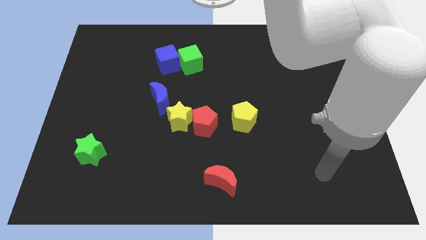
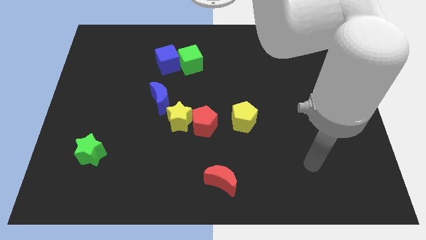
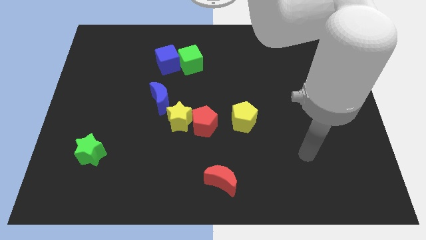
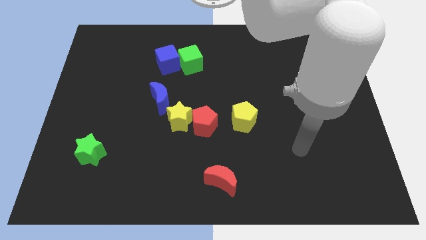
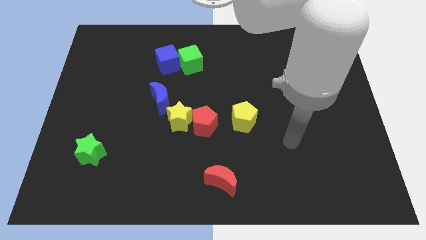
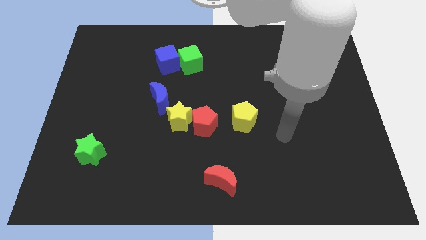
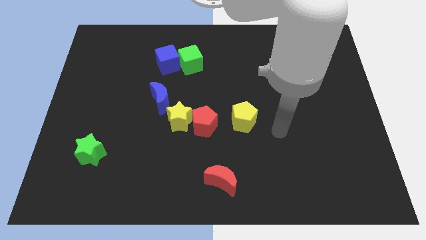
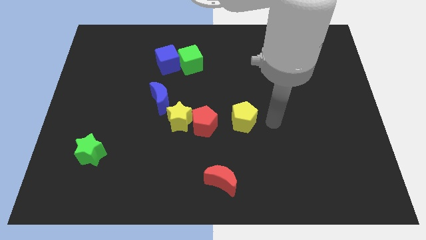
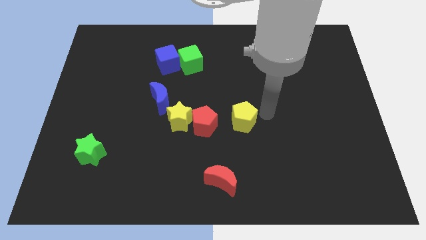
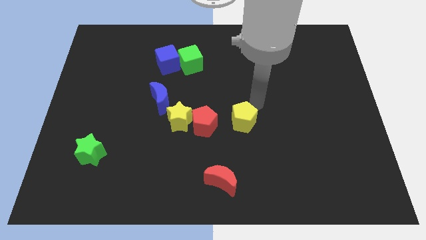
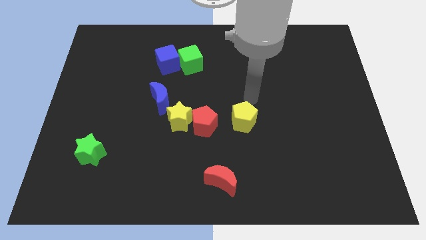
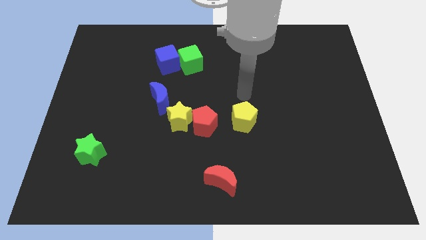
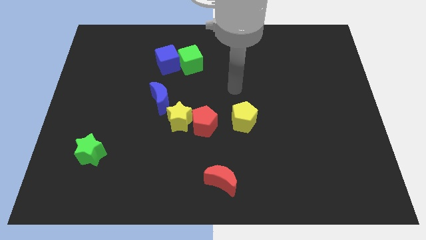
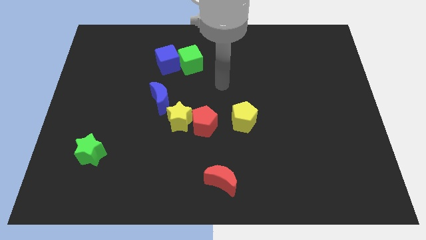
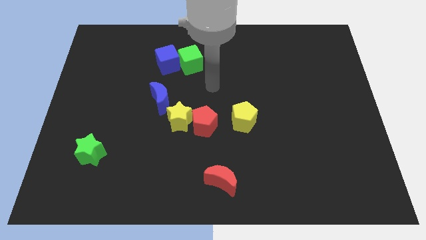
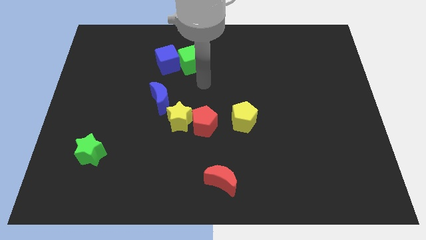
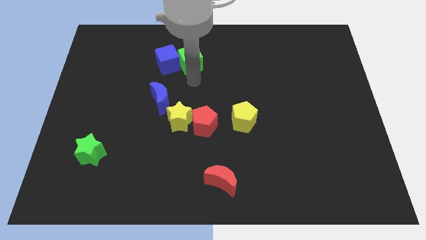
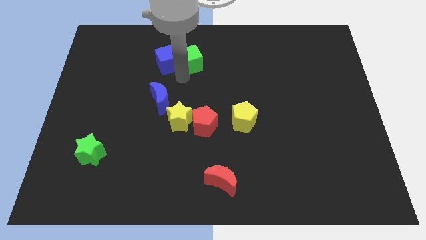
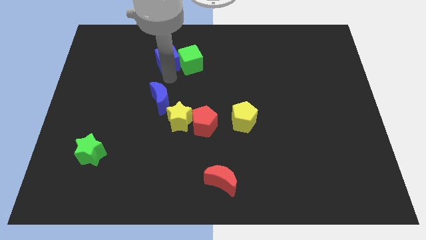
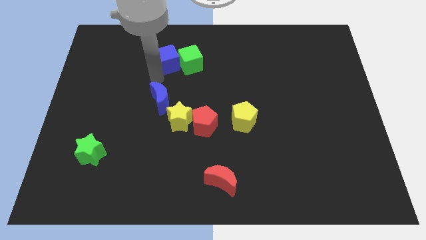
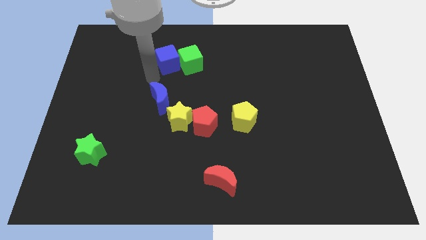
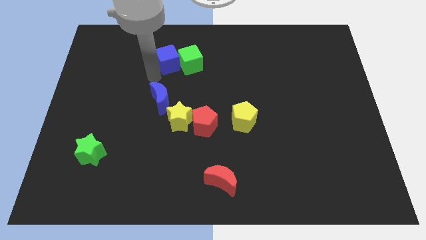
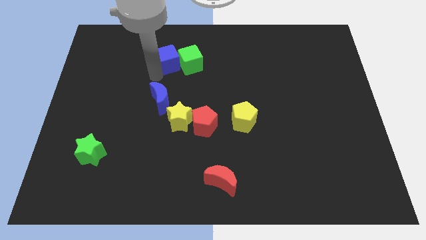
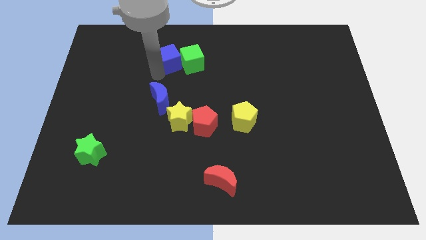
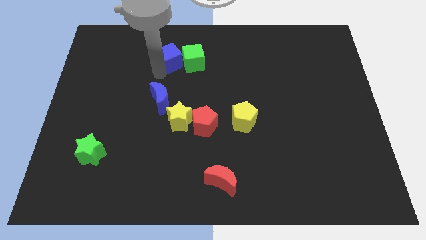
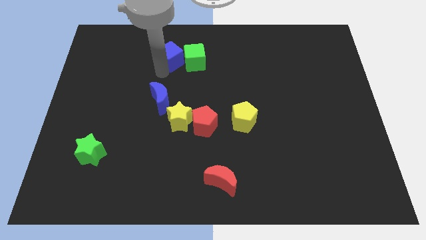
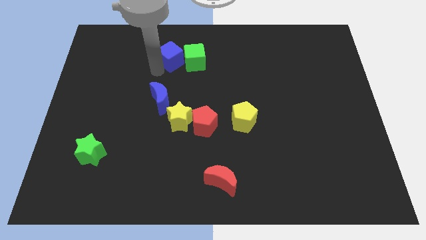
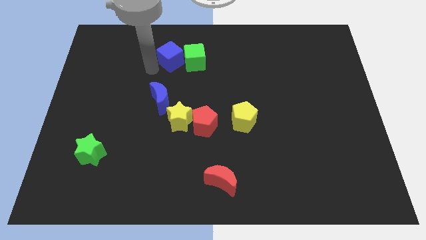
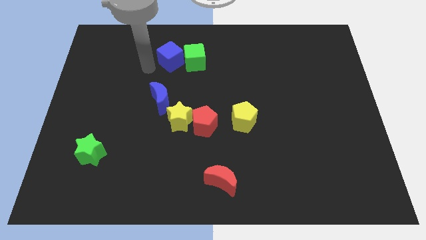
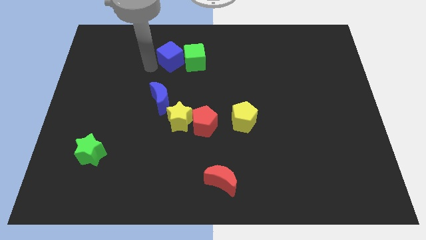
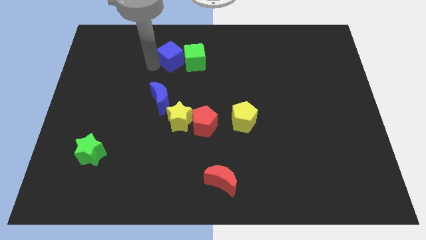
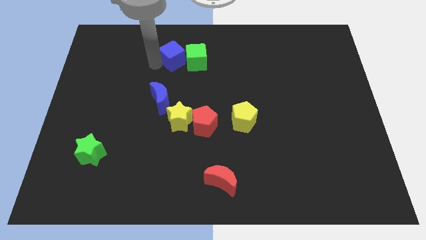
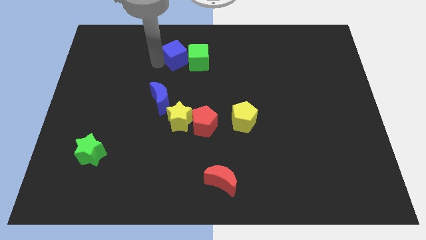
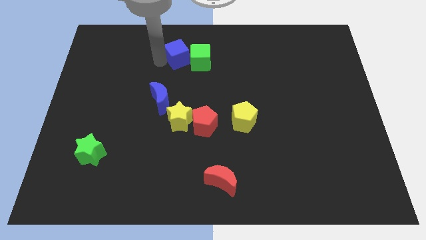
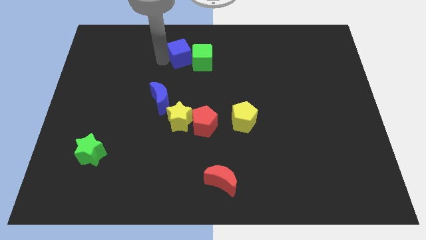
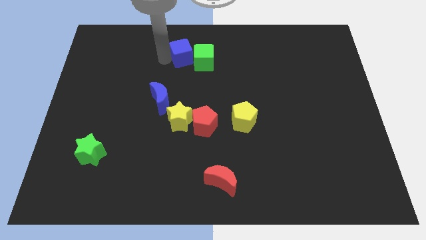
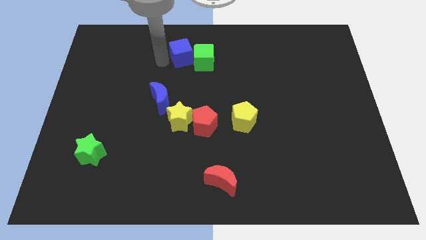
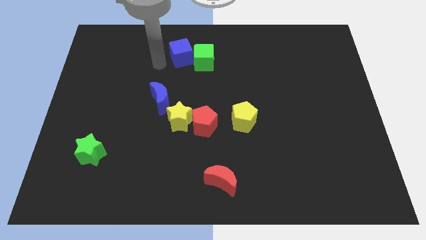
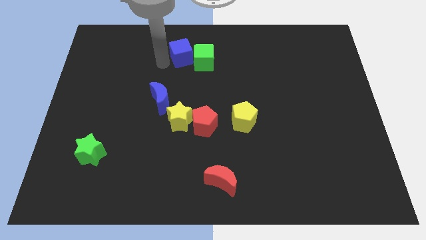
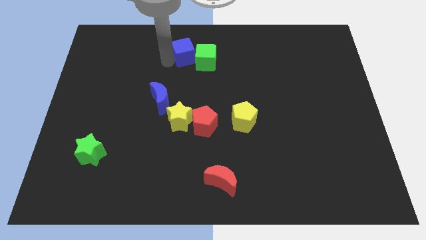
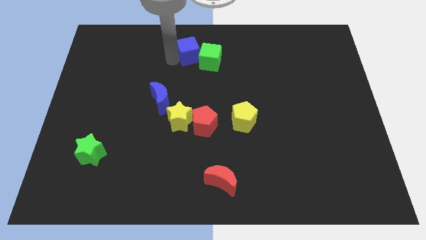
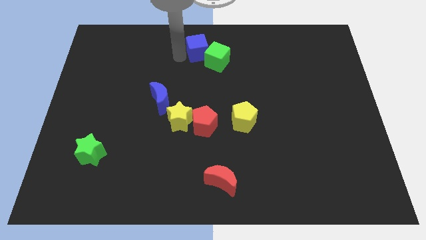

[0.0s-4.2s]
slightly slide the blue cube to the right

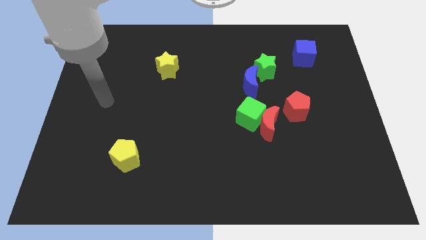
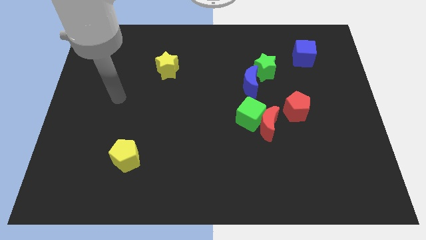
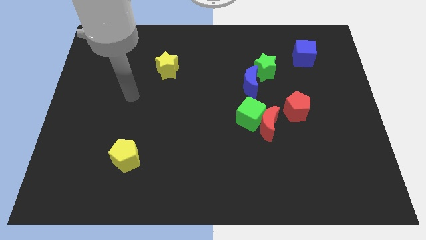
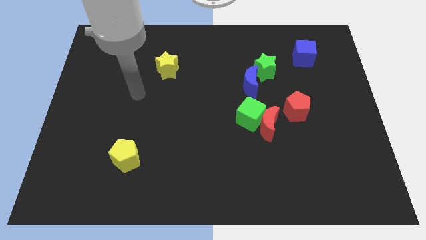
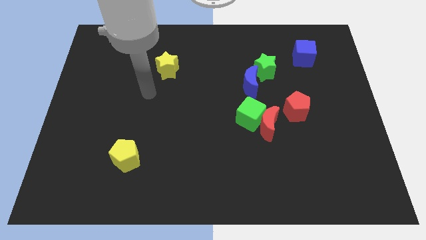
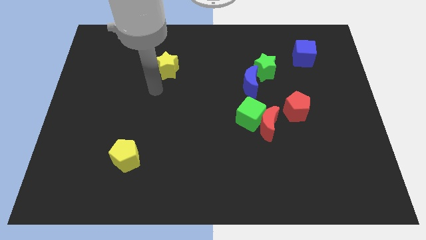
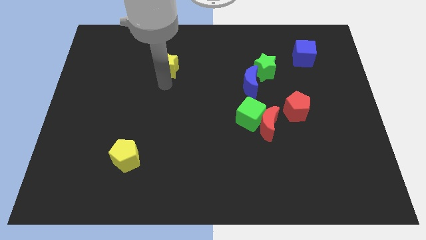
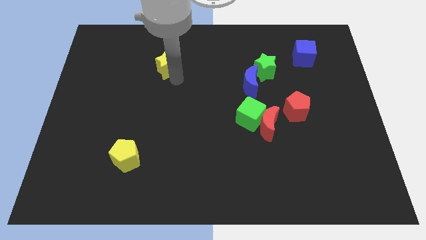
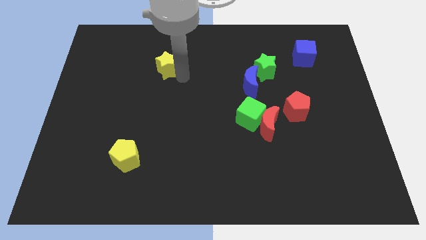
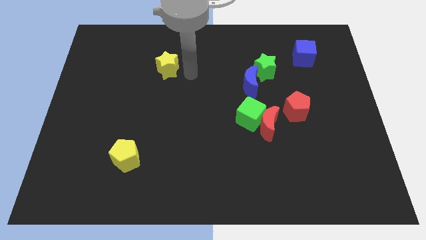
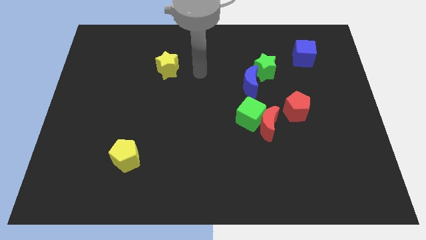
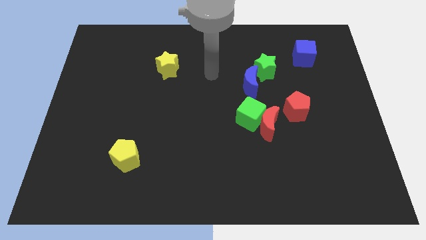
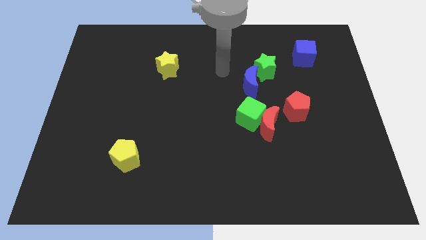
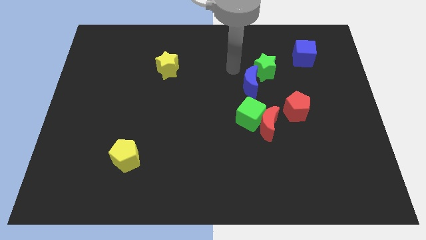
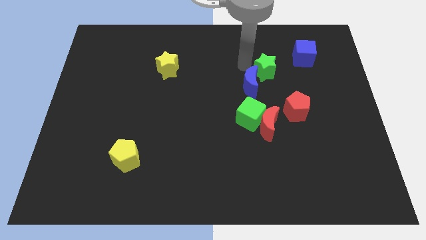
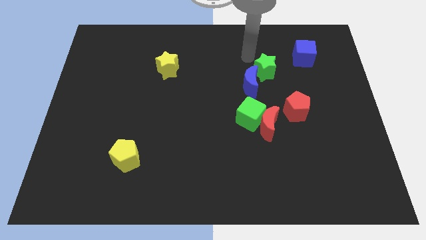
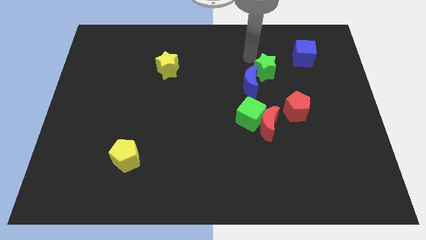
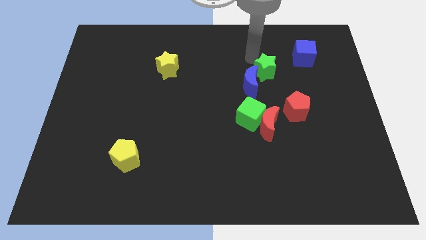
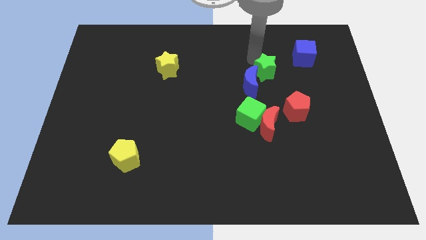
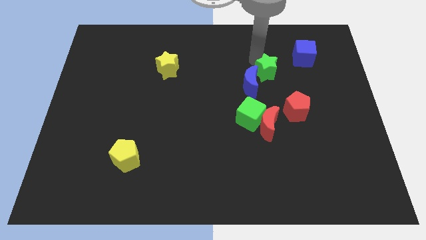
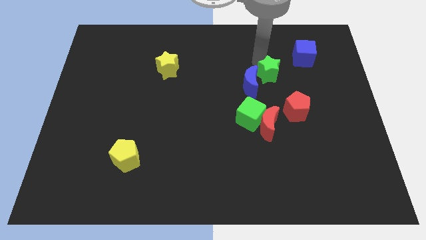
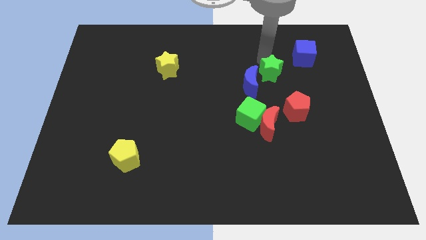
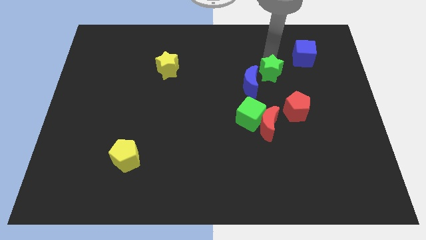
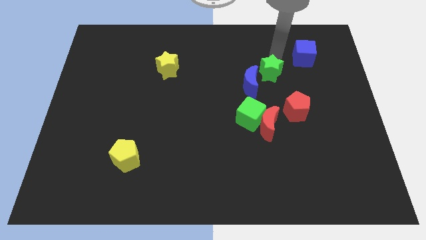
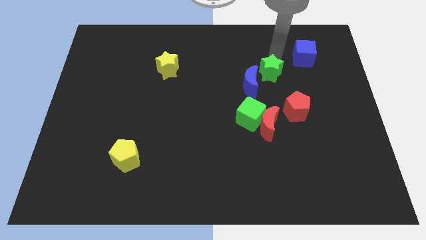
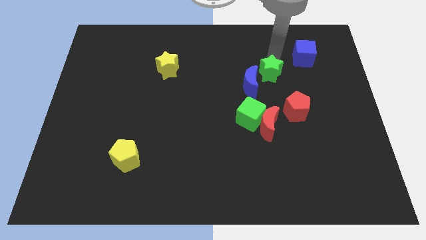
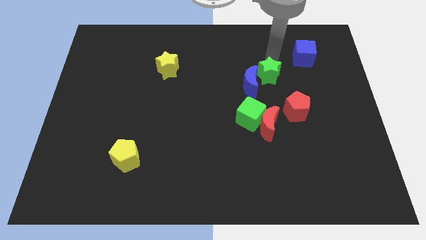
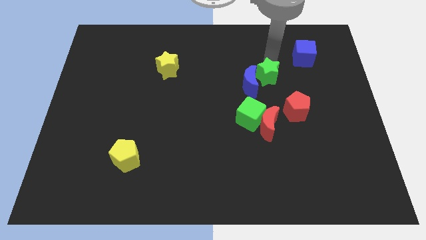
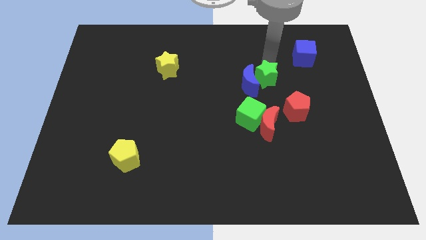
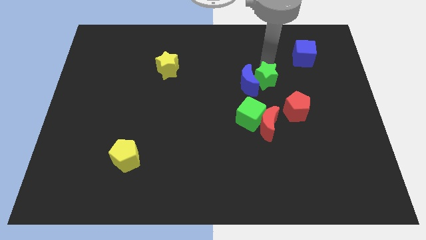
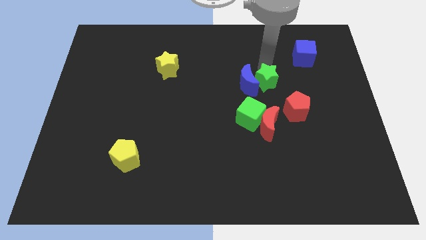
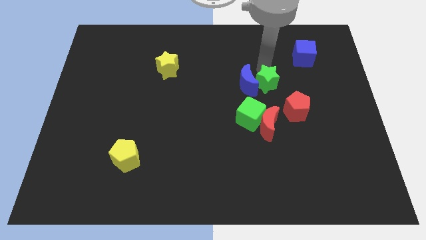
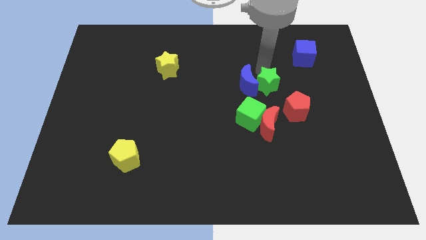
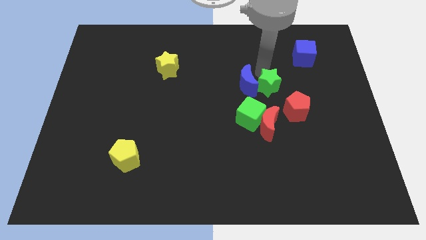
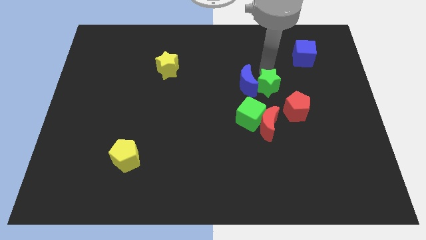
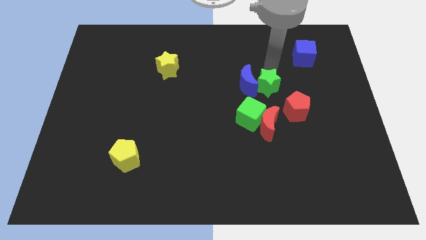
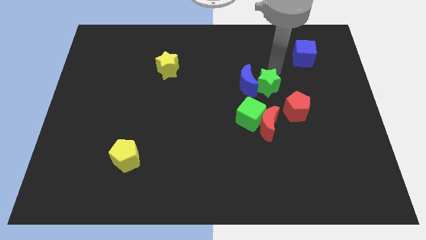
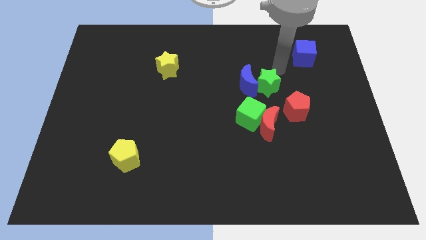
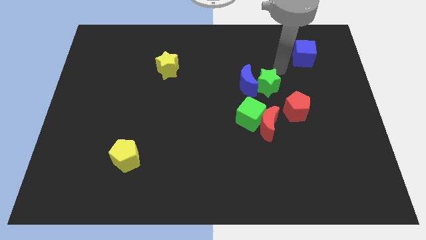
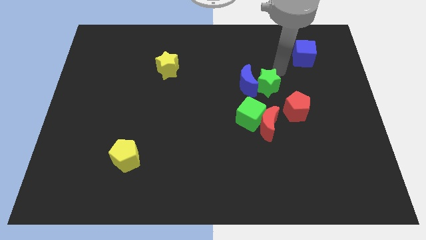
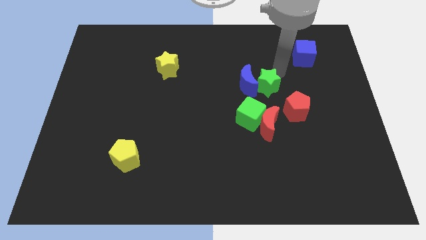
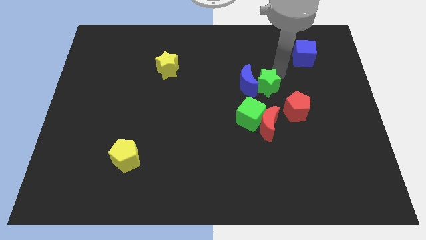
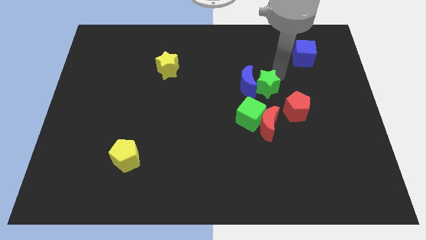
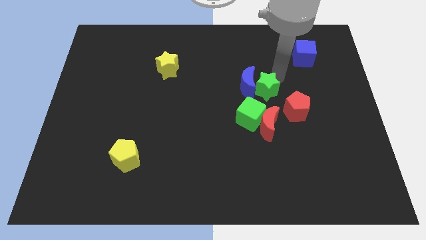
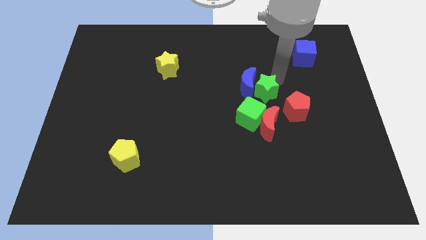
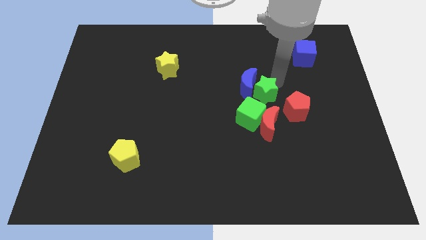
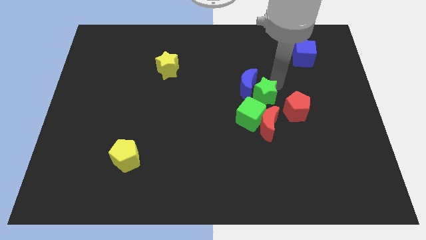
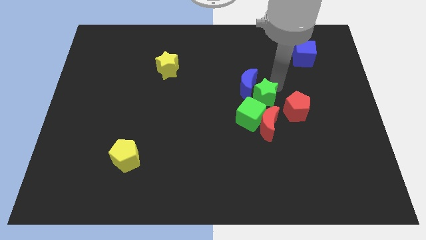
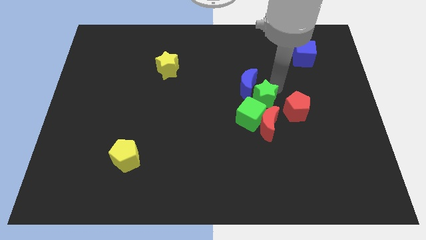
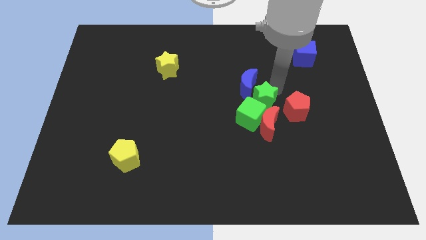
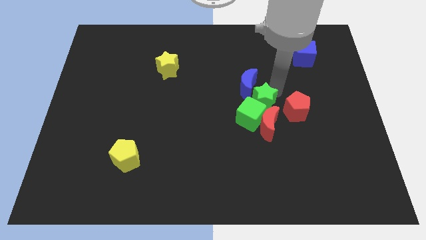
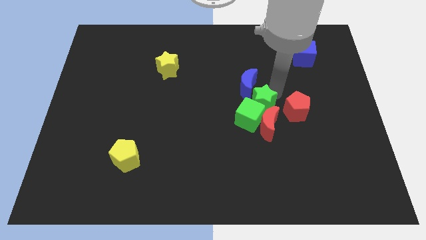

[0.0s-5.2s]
slide the green star a little bit diagonally downwards and to the left
